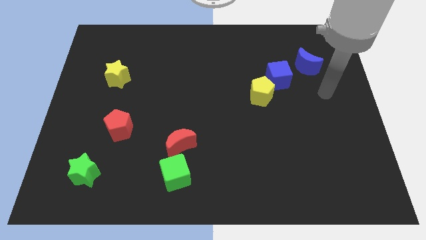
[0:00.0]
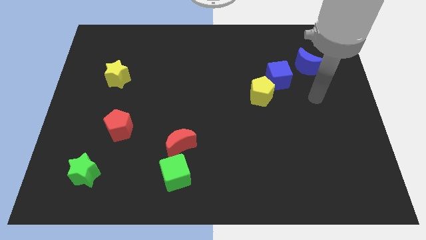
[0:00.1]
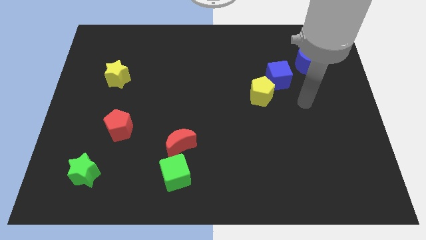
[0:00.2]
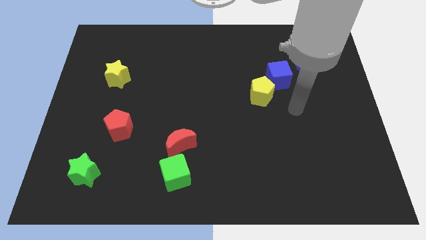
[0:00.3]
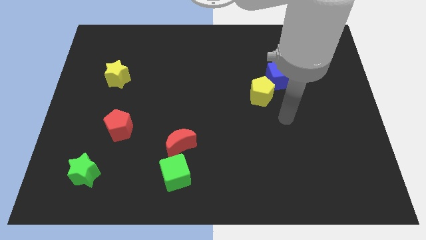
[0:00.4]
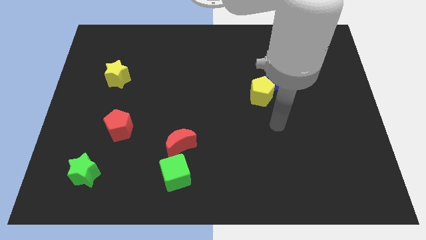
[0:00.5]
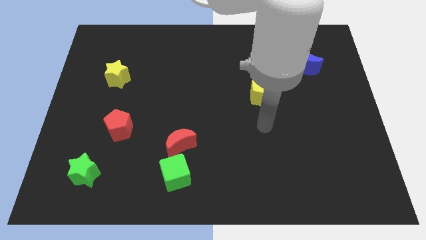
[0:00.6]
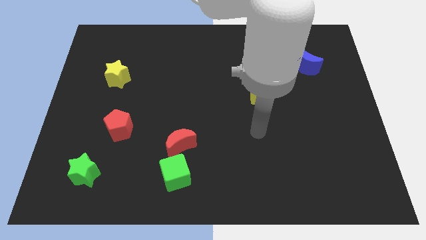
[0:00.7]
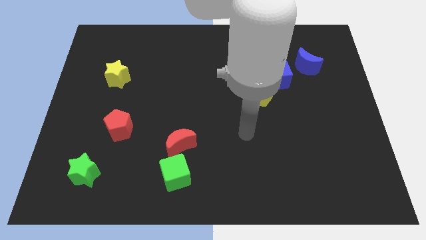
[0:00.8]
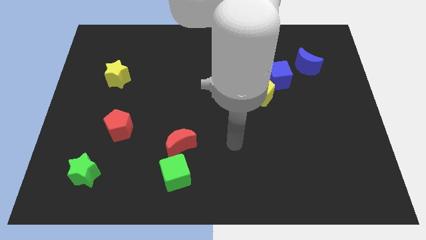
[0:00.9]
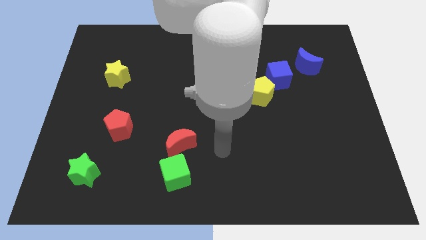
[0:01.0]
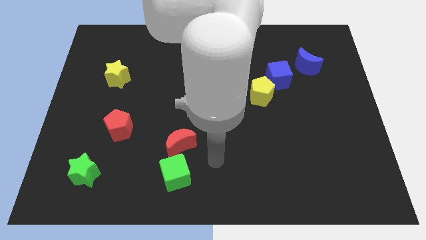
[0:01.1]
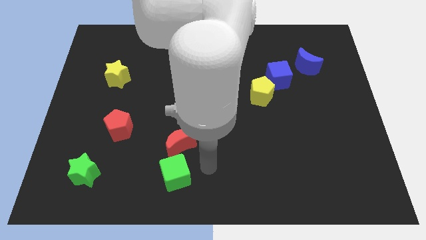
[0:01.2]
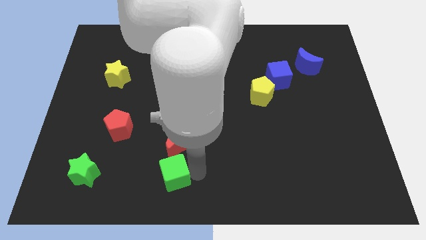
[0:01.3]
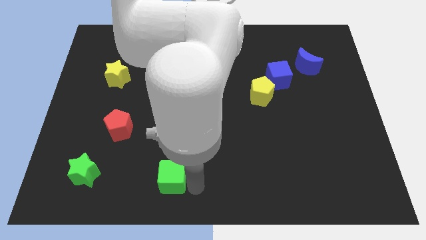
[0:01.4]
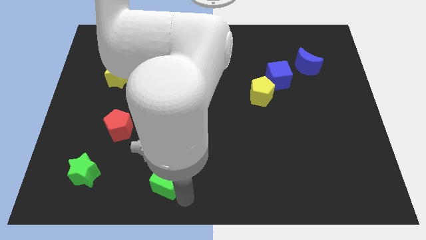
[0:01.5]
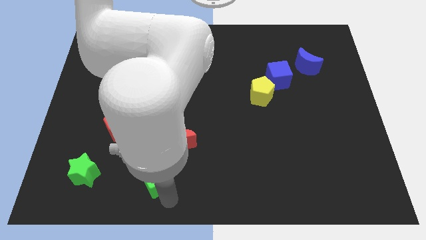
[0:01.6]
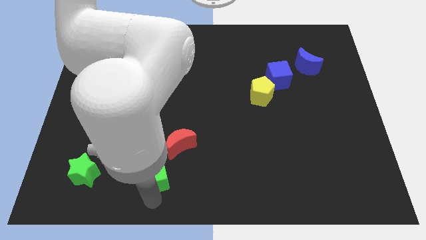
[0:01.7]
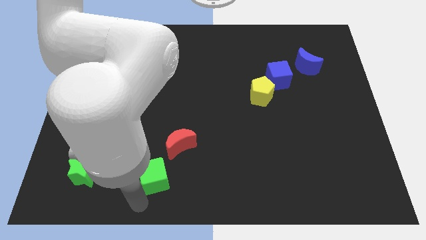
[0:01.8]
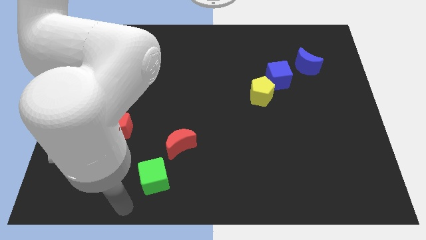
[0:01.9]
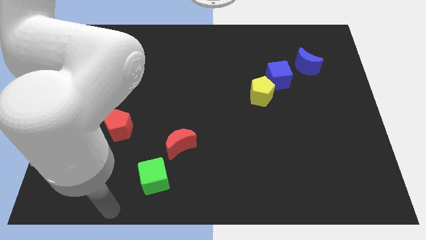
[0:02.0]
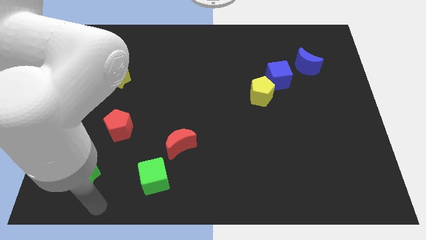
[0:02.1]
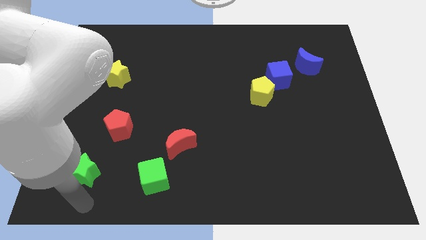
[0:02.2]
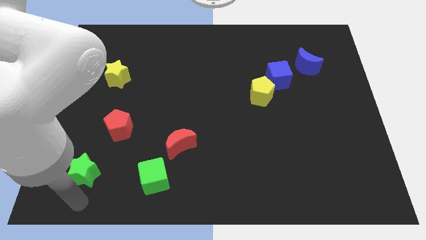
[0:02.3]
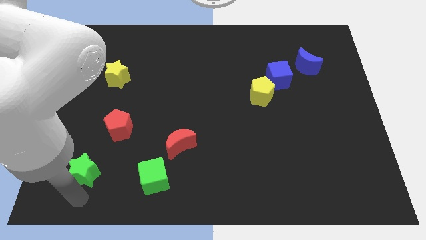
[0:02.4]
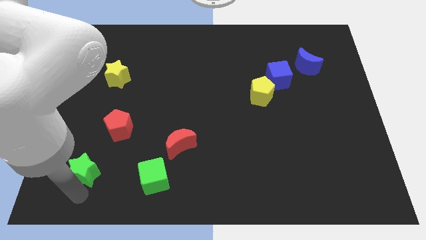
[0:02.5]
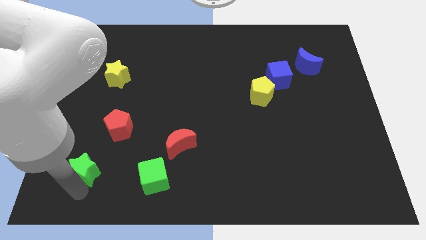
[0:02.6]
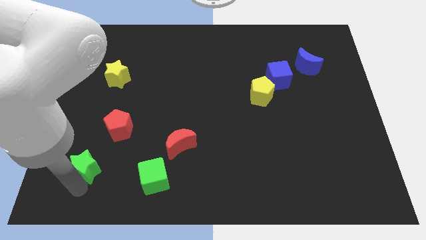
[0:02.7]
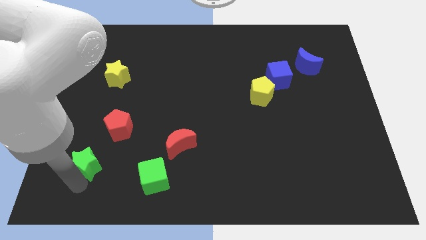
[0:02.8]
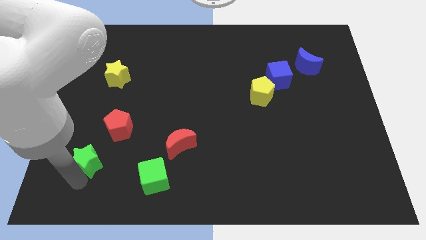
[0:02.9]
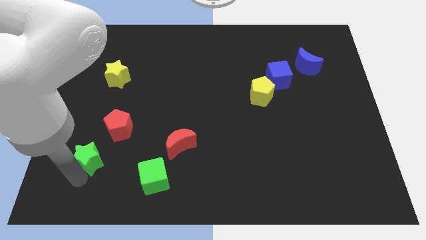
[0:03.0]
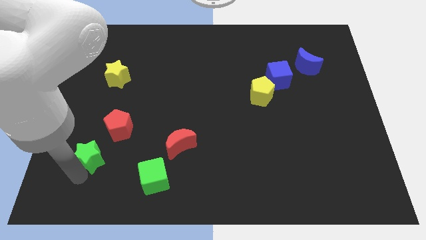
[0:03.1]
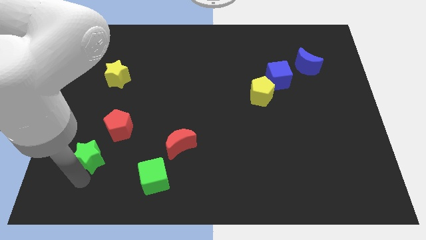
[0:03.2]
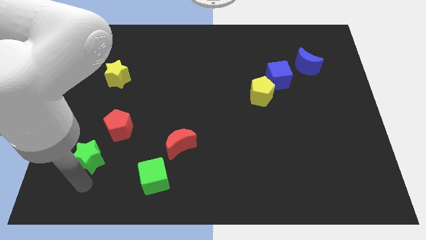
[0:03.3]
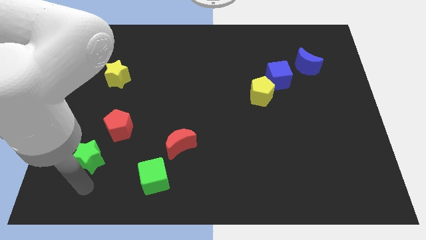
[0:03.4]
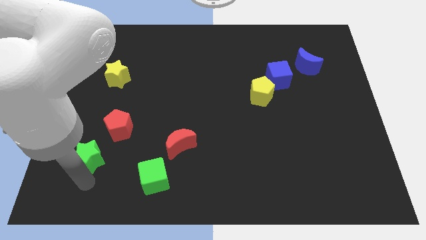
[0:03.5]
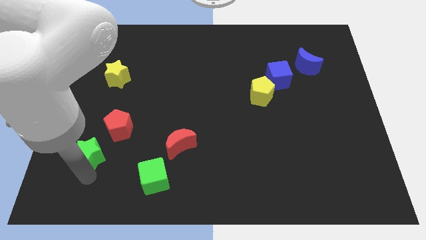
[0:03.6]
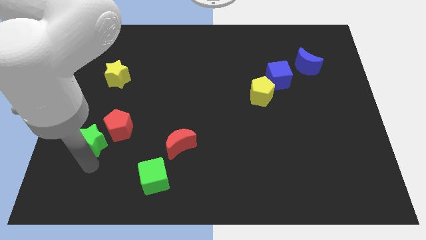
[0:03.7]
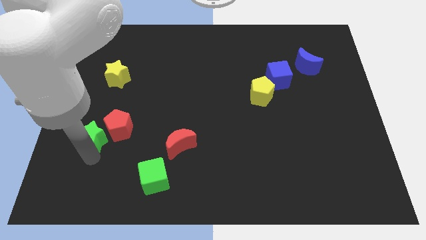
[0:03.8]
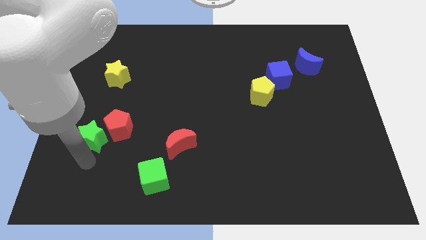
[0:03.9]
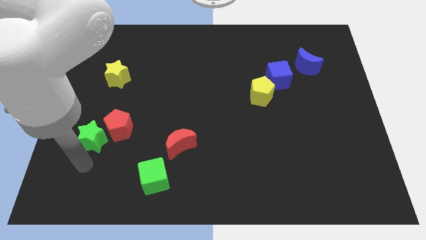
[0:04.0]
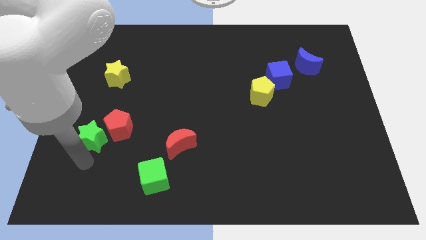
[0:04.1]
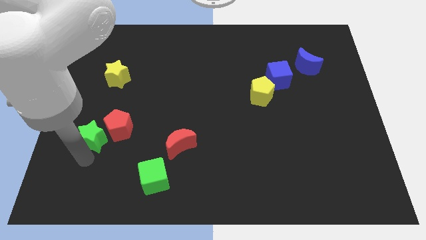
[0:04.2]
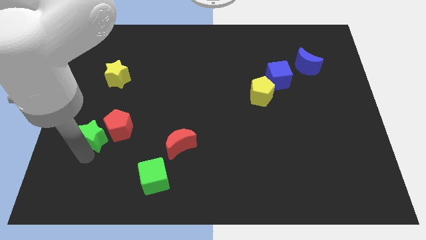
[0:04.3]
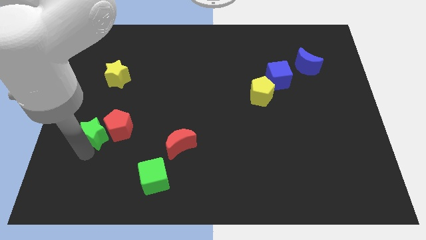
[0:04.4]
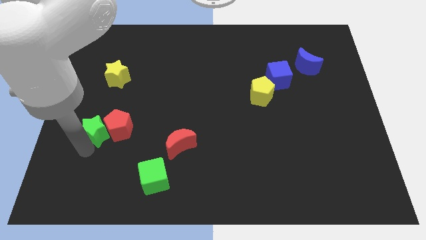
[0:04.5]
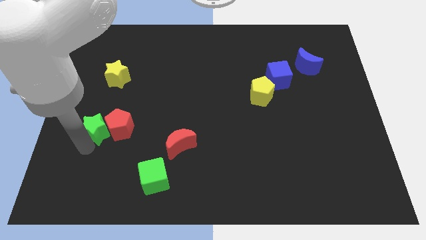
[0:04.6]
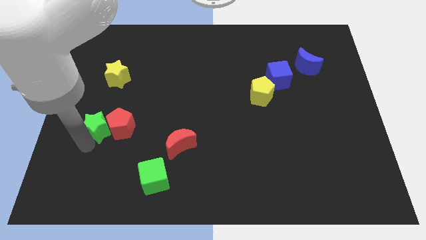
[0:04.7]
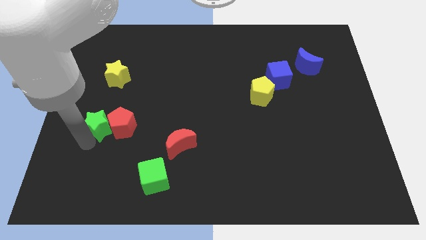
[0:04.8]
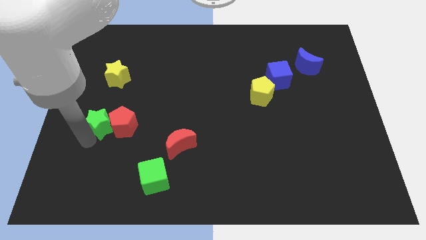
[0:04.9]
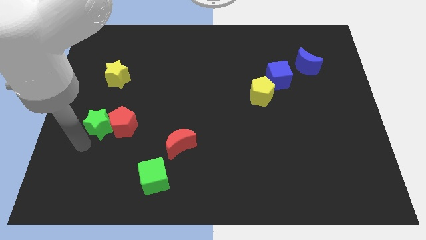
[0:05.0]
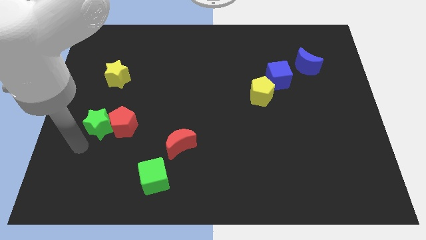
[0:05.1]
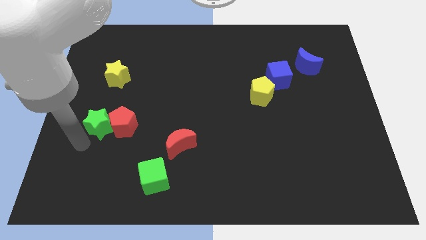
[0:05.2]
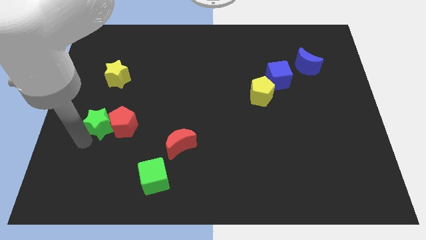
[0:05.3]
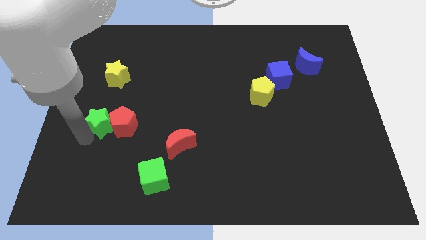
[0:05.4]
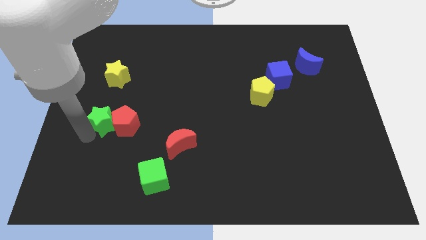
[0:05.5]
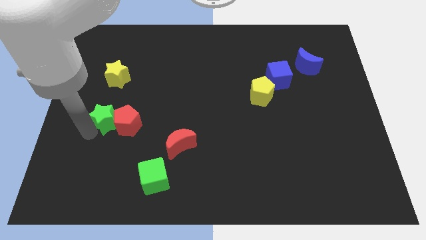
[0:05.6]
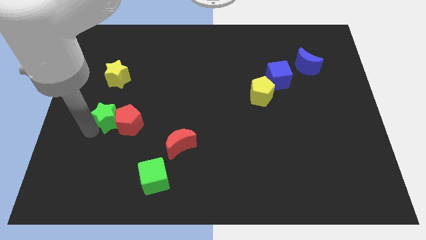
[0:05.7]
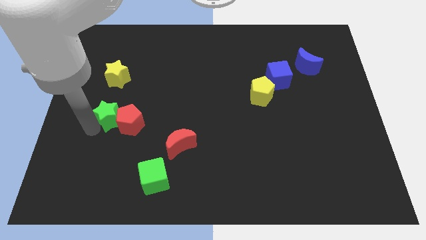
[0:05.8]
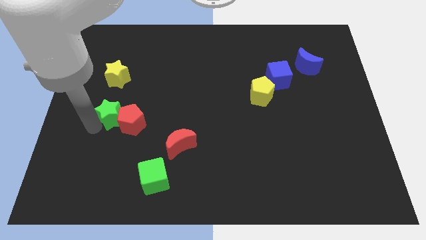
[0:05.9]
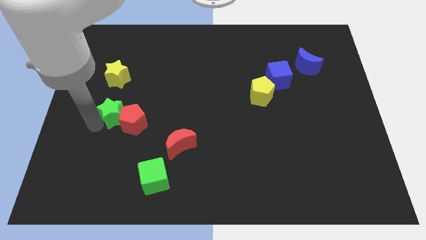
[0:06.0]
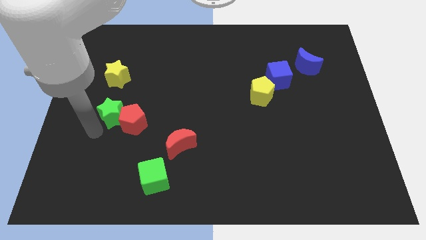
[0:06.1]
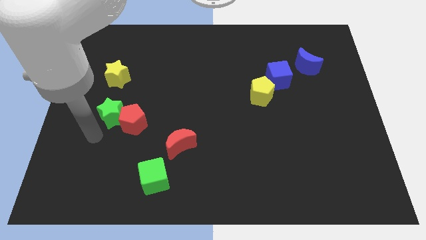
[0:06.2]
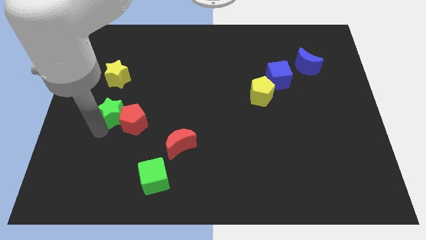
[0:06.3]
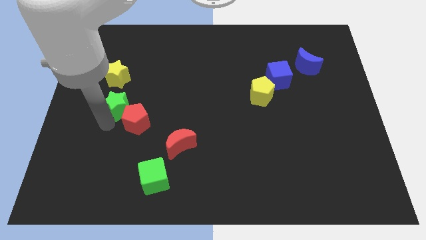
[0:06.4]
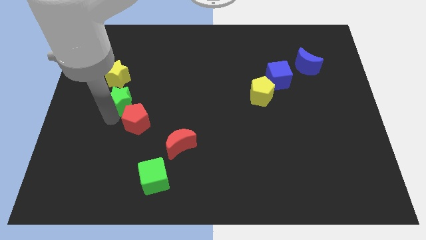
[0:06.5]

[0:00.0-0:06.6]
push the green star diagonally down and to the right of the yellow star
